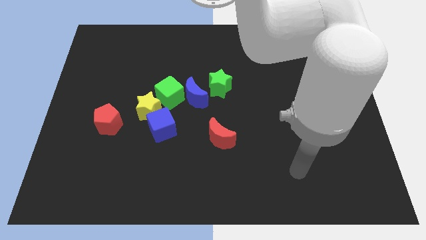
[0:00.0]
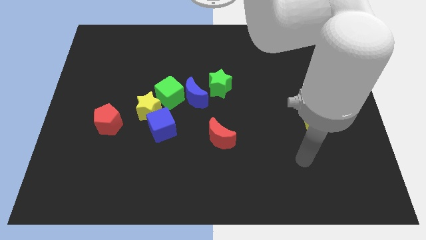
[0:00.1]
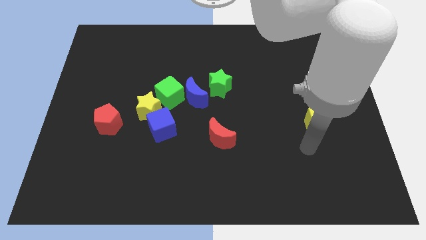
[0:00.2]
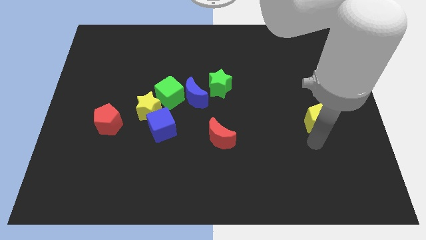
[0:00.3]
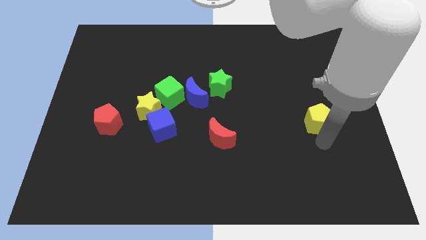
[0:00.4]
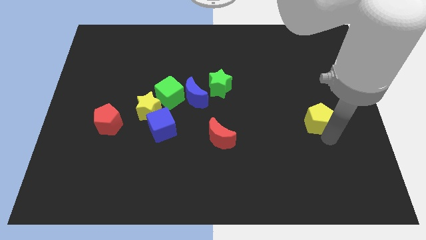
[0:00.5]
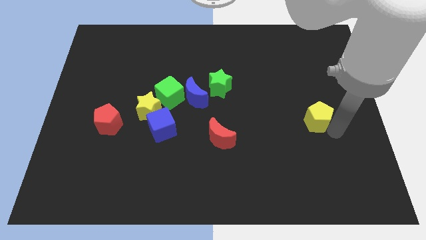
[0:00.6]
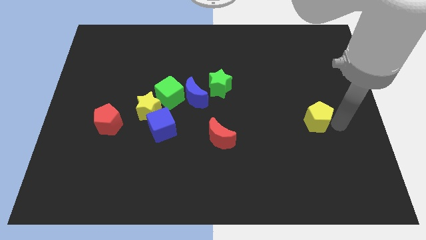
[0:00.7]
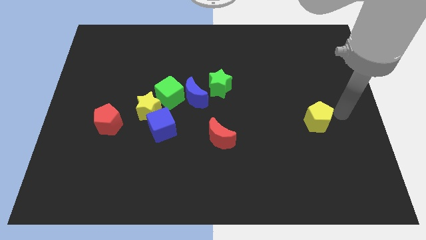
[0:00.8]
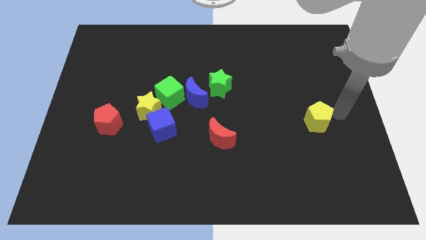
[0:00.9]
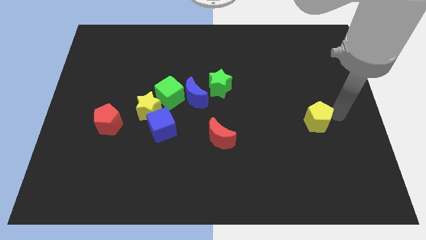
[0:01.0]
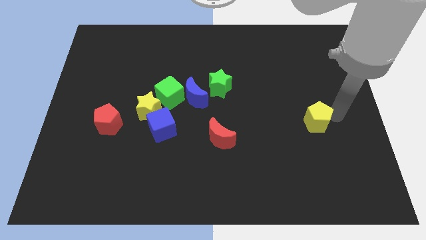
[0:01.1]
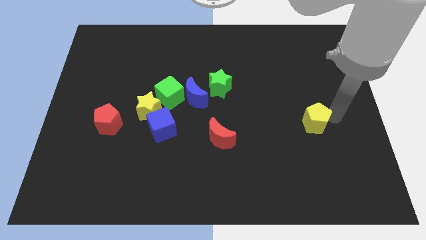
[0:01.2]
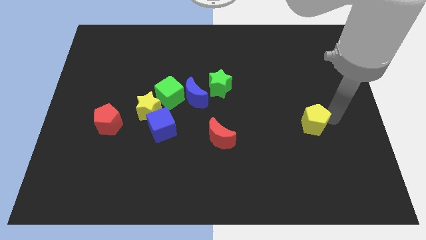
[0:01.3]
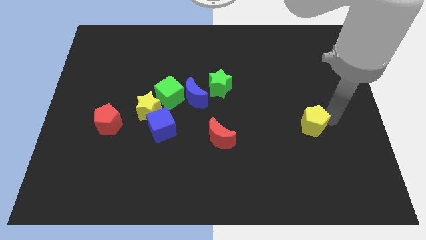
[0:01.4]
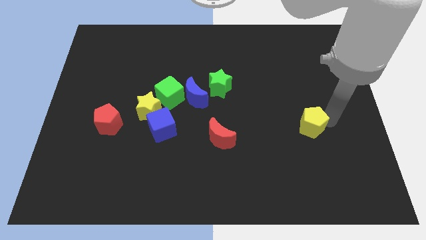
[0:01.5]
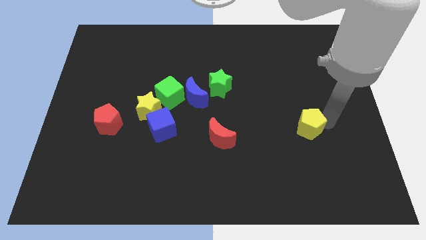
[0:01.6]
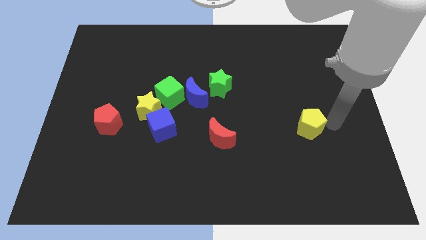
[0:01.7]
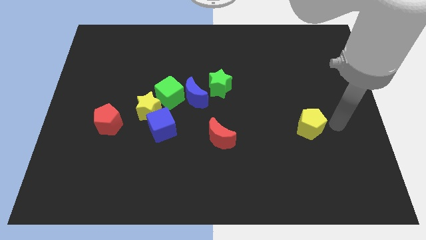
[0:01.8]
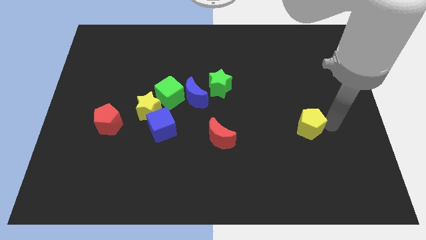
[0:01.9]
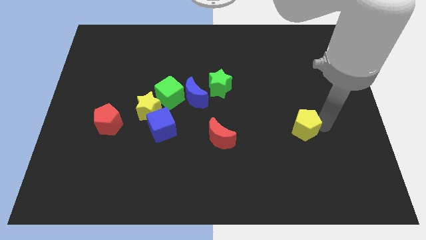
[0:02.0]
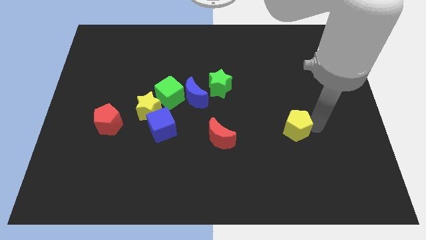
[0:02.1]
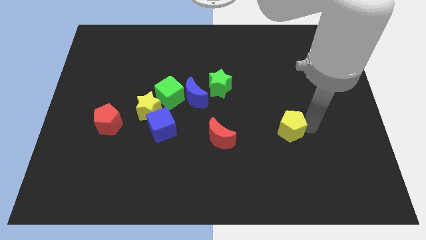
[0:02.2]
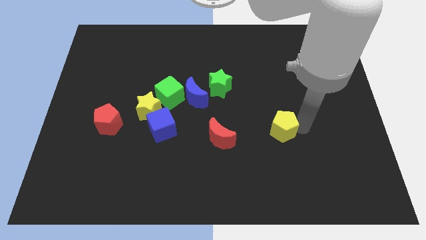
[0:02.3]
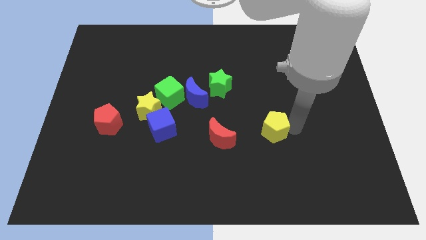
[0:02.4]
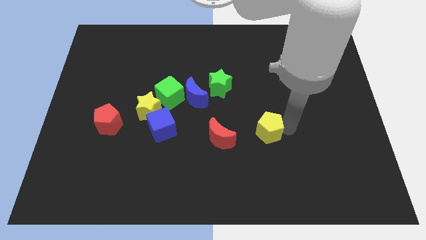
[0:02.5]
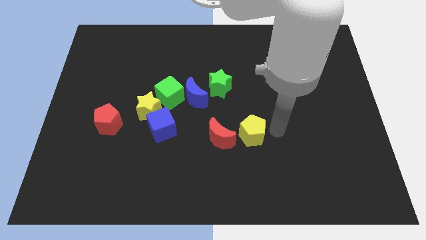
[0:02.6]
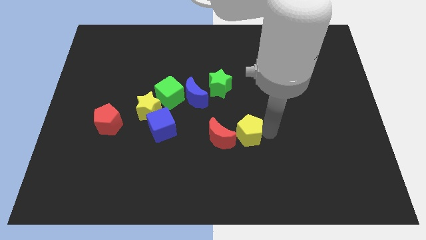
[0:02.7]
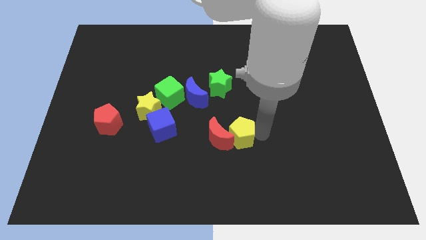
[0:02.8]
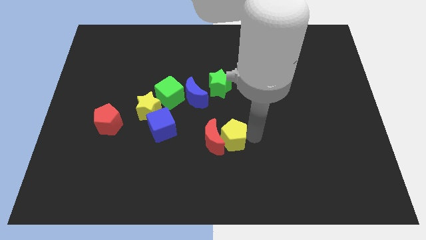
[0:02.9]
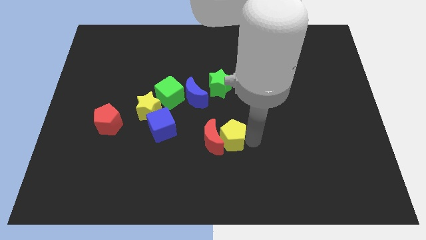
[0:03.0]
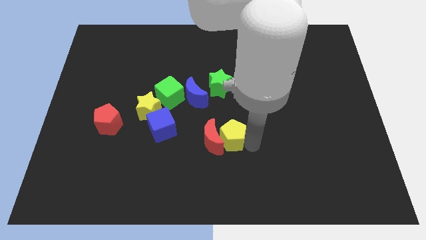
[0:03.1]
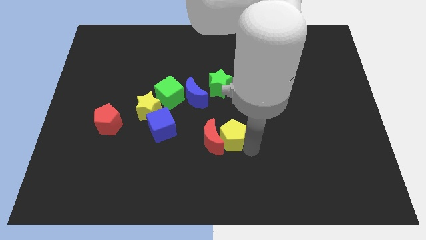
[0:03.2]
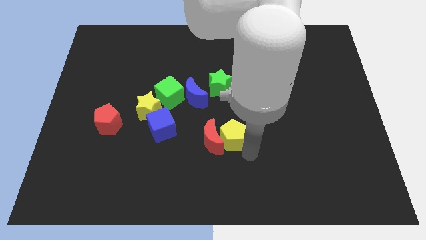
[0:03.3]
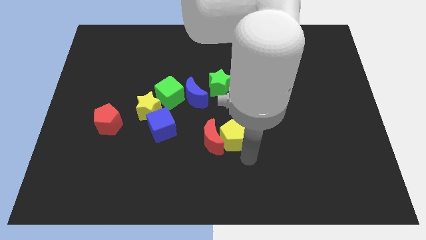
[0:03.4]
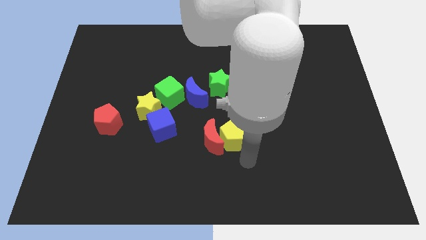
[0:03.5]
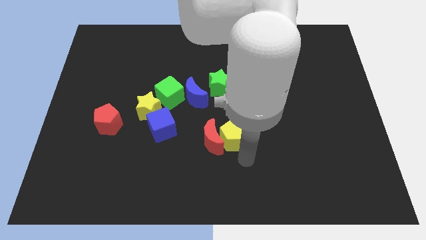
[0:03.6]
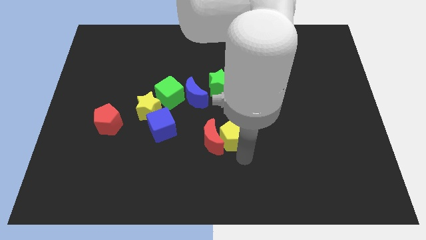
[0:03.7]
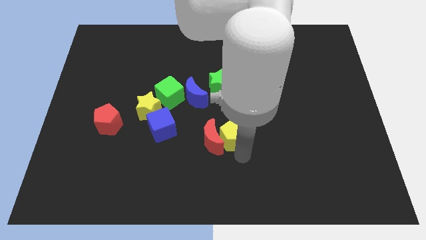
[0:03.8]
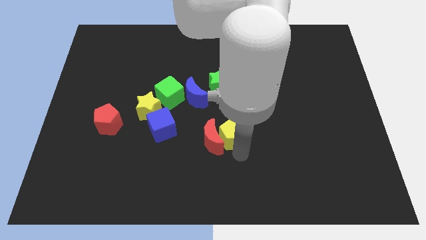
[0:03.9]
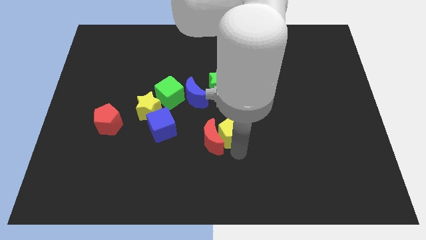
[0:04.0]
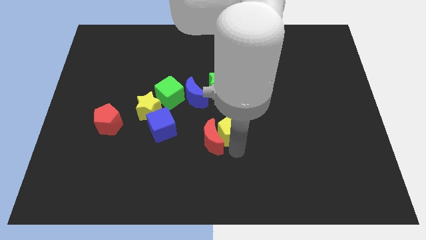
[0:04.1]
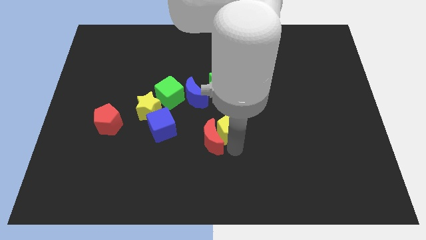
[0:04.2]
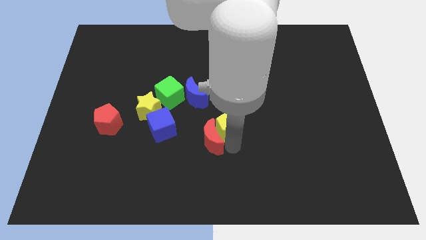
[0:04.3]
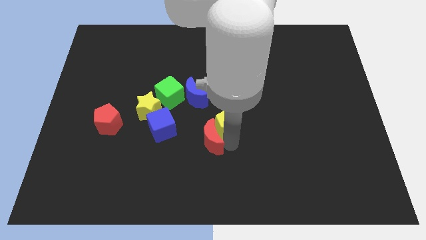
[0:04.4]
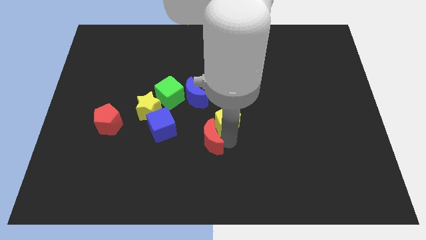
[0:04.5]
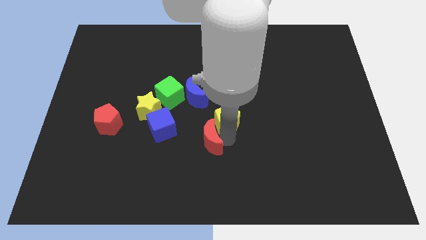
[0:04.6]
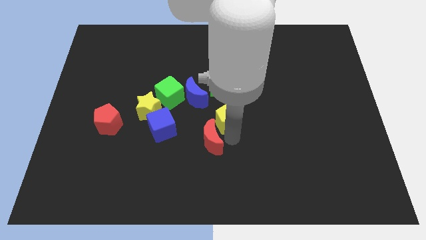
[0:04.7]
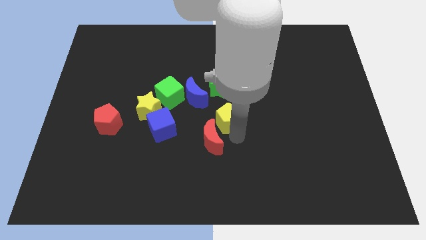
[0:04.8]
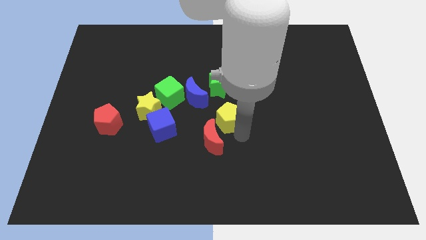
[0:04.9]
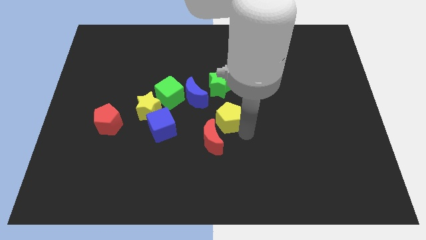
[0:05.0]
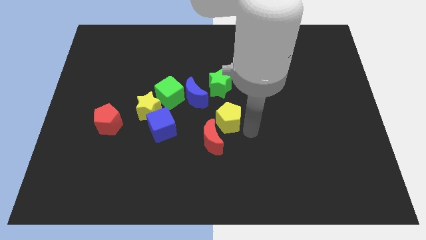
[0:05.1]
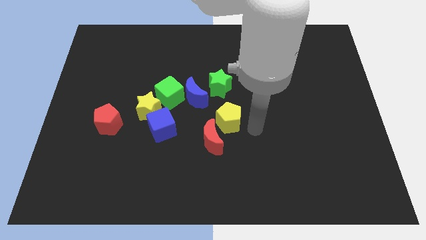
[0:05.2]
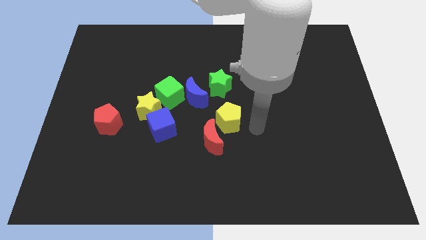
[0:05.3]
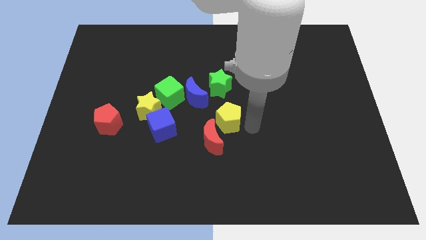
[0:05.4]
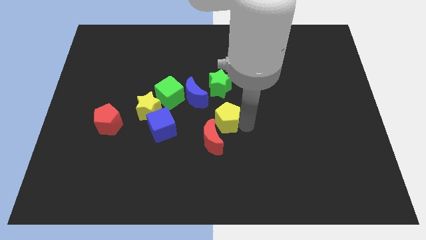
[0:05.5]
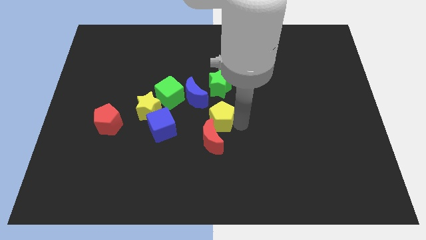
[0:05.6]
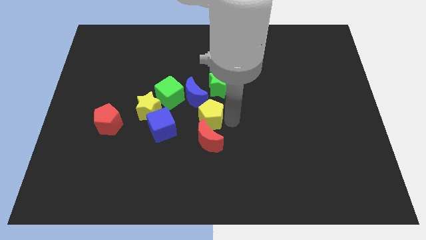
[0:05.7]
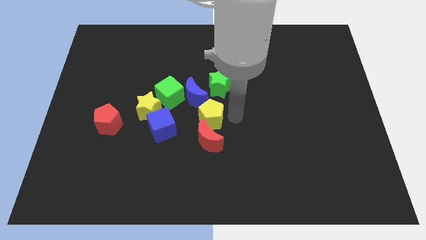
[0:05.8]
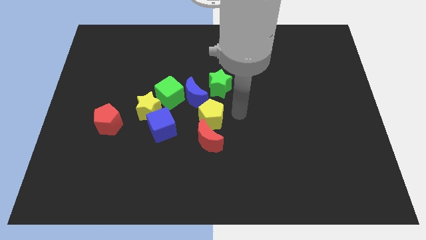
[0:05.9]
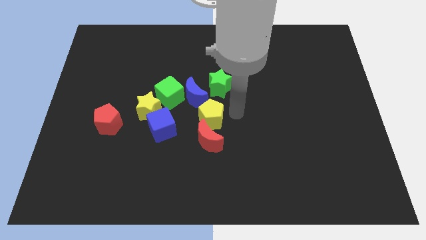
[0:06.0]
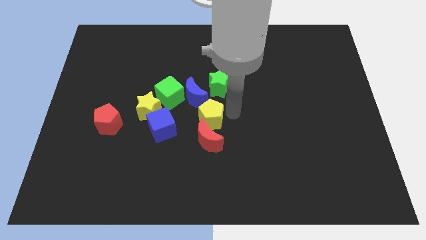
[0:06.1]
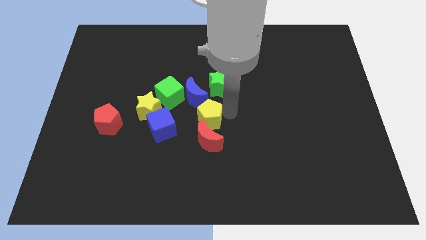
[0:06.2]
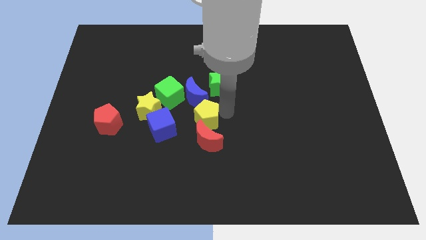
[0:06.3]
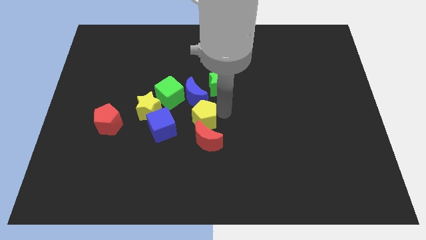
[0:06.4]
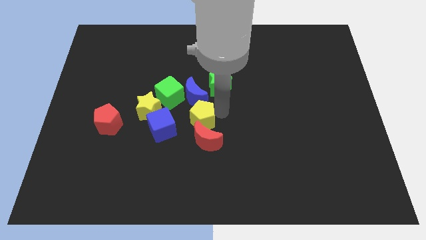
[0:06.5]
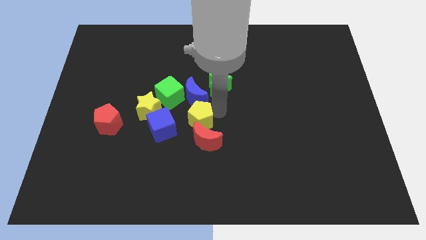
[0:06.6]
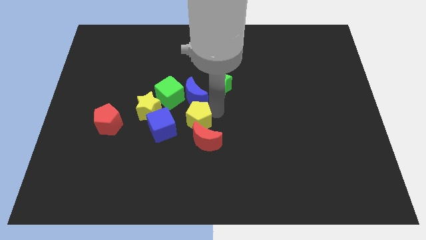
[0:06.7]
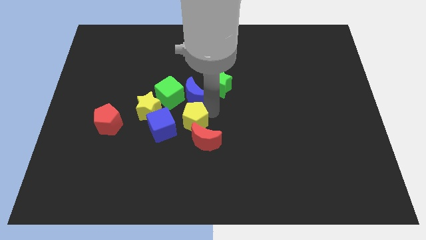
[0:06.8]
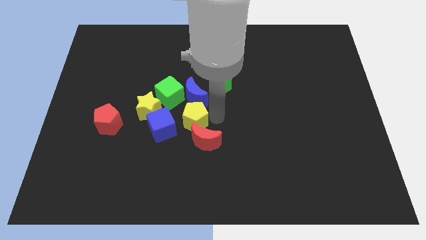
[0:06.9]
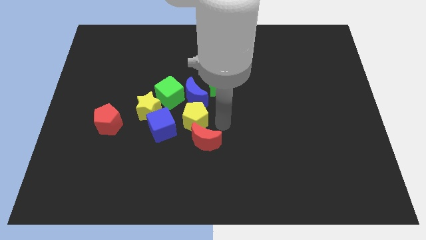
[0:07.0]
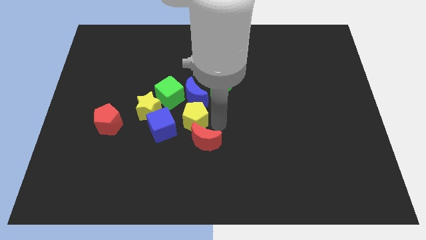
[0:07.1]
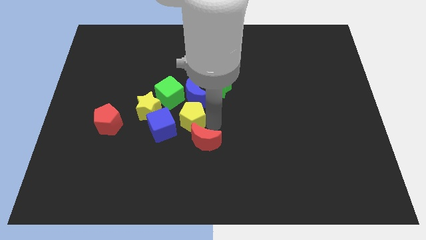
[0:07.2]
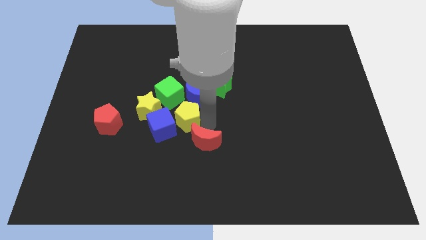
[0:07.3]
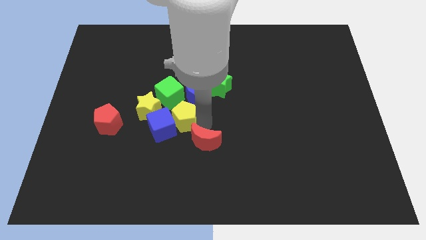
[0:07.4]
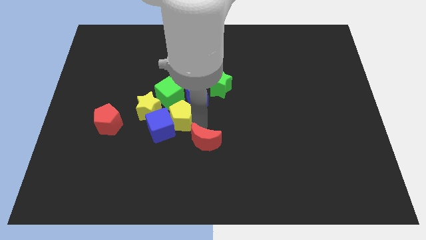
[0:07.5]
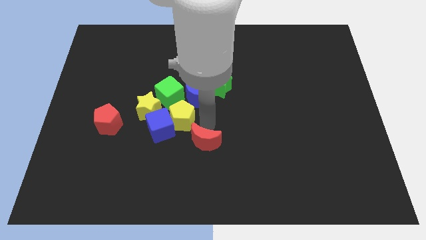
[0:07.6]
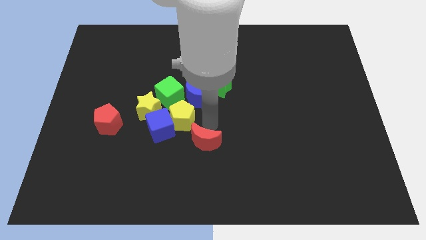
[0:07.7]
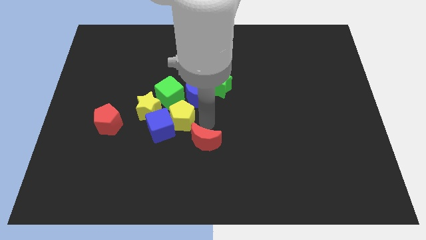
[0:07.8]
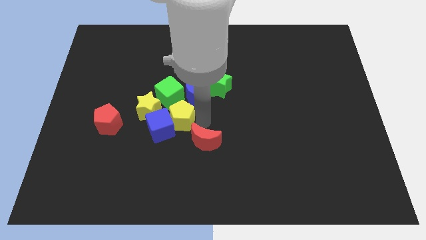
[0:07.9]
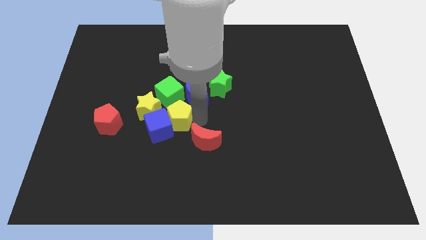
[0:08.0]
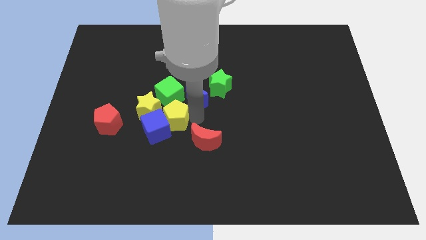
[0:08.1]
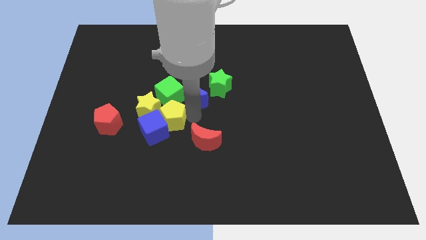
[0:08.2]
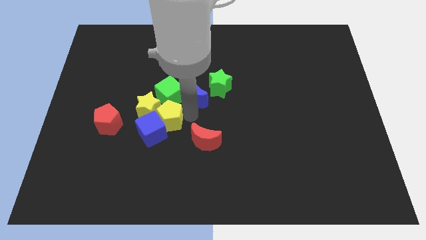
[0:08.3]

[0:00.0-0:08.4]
move the yellow pentagon towards the yellow star
